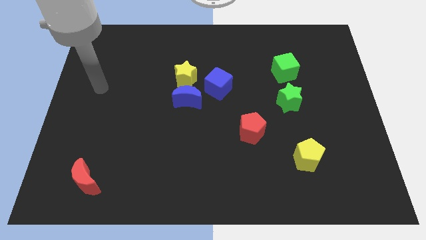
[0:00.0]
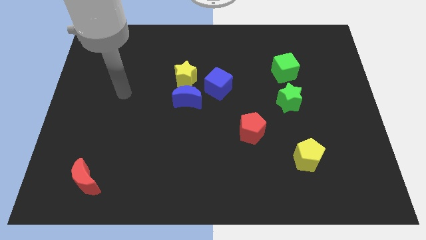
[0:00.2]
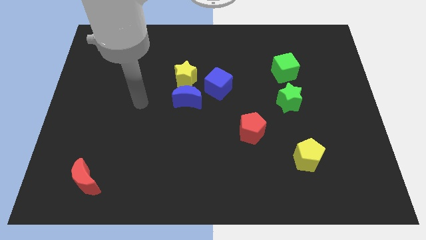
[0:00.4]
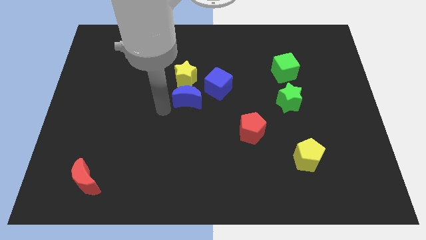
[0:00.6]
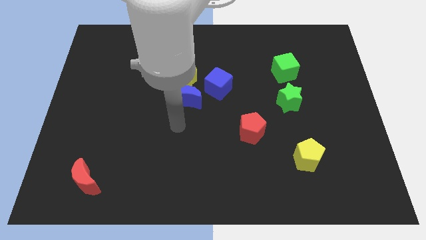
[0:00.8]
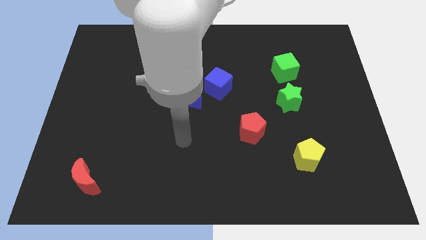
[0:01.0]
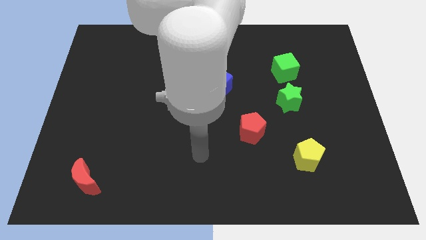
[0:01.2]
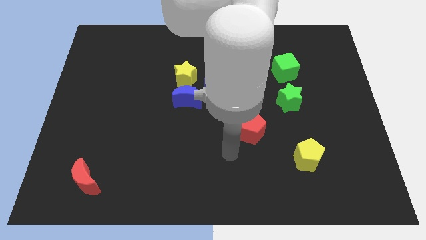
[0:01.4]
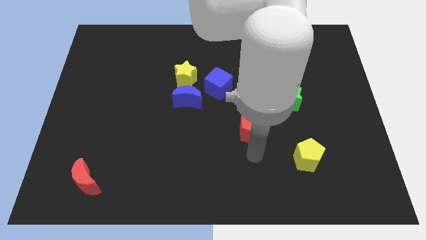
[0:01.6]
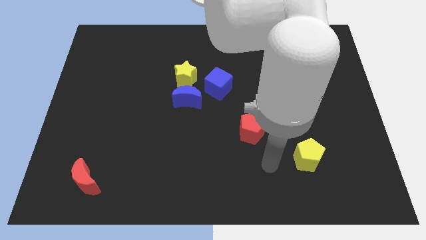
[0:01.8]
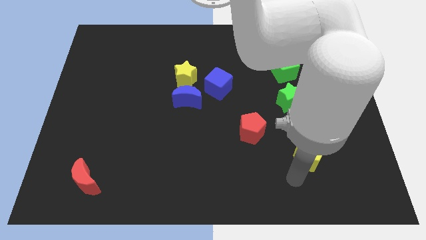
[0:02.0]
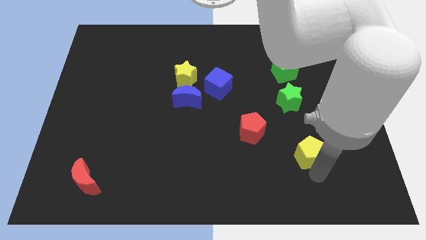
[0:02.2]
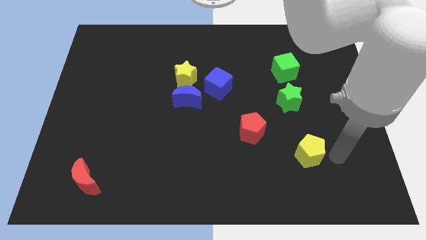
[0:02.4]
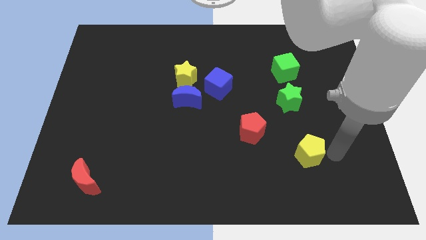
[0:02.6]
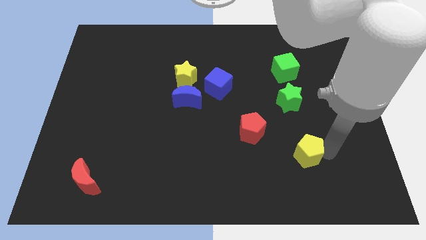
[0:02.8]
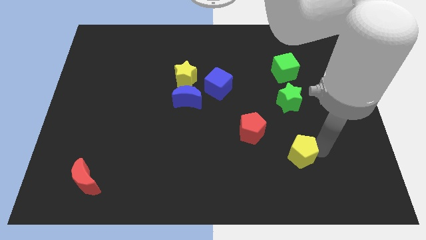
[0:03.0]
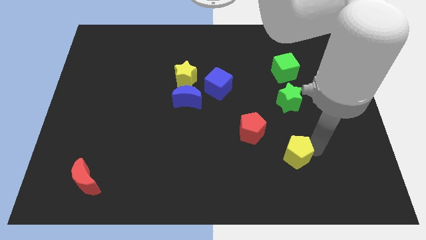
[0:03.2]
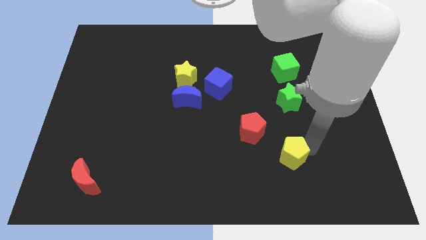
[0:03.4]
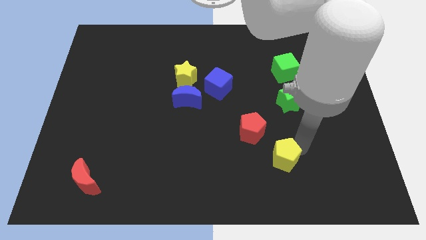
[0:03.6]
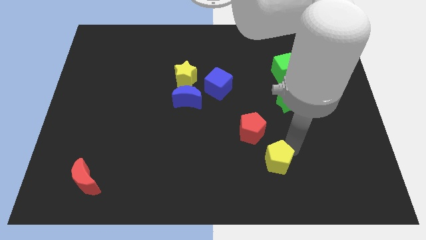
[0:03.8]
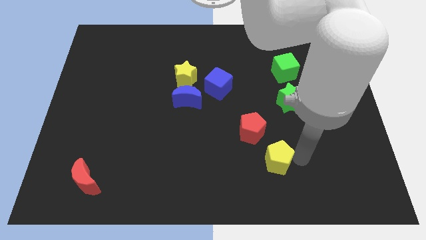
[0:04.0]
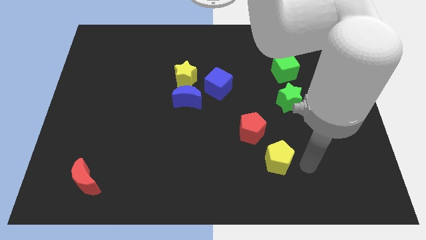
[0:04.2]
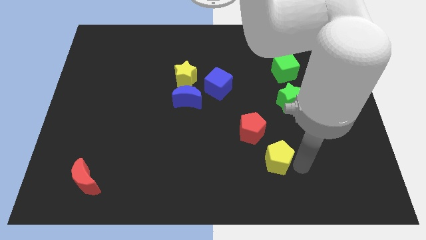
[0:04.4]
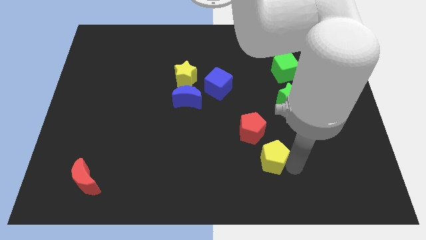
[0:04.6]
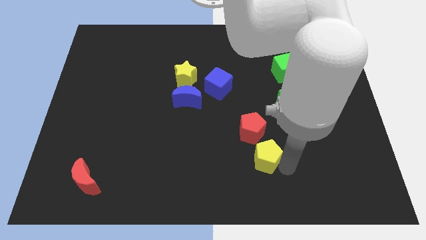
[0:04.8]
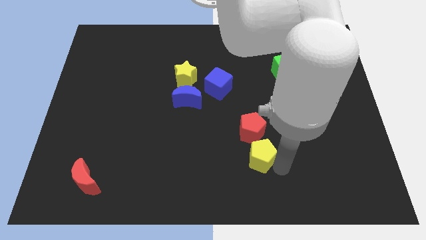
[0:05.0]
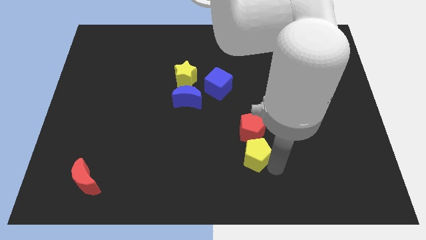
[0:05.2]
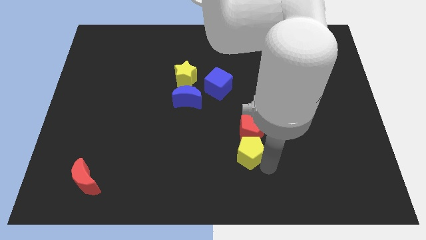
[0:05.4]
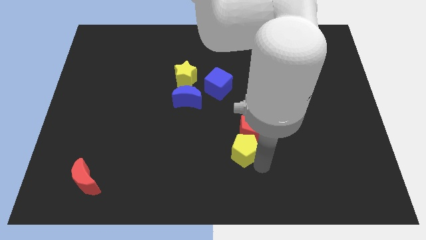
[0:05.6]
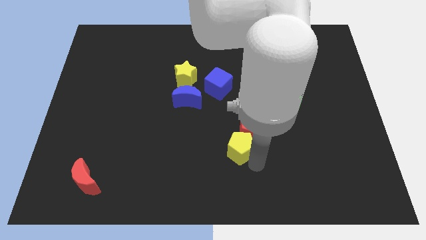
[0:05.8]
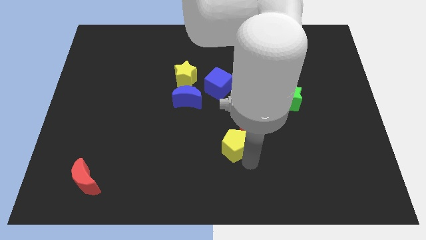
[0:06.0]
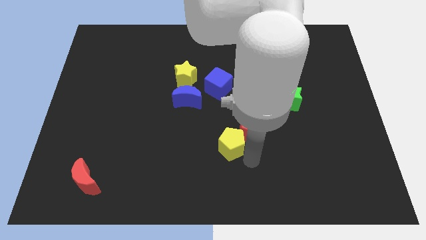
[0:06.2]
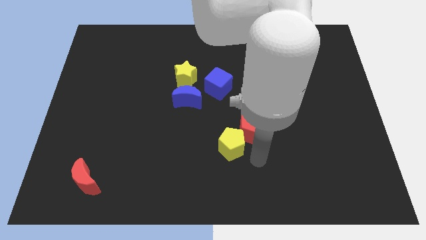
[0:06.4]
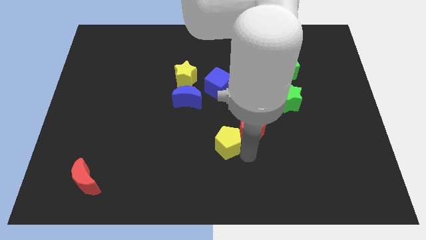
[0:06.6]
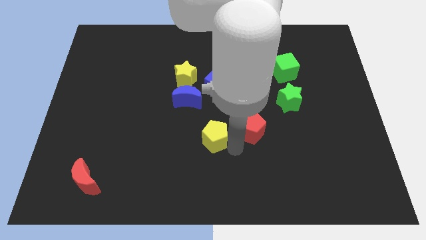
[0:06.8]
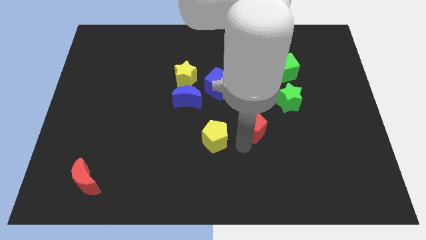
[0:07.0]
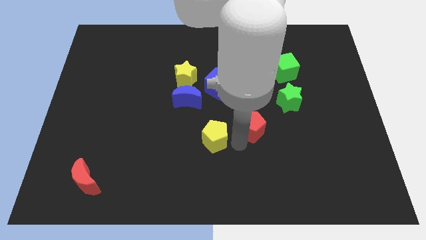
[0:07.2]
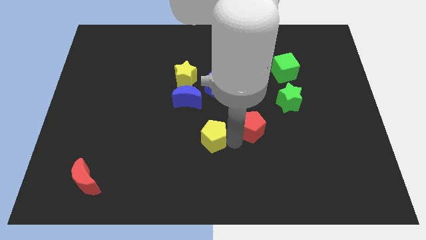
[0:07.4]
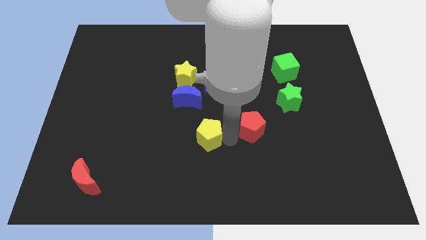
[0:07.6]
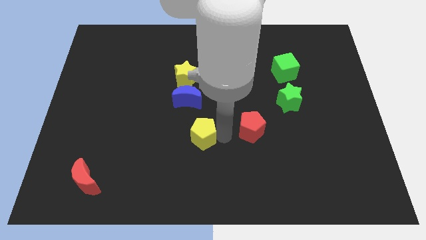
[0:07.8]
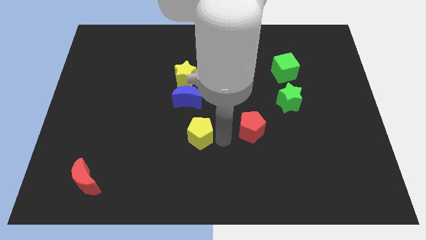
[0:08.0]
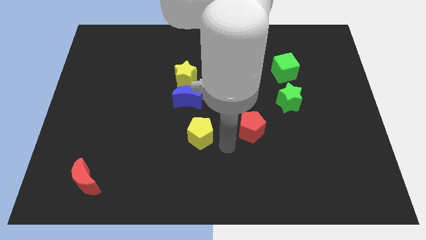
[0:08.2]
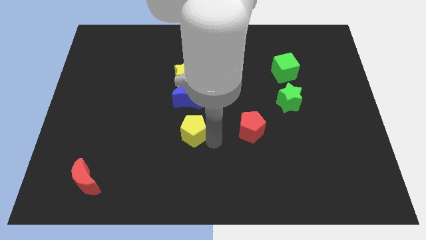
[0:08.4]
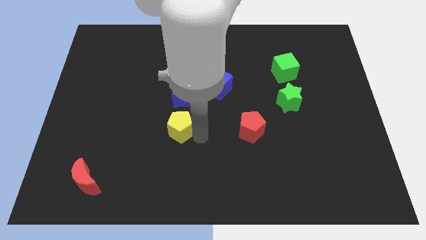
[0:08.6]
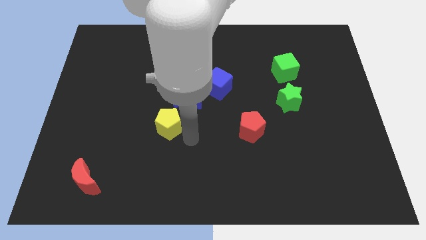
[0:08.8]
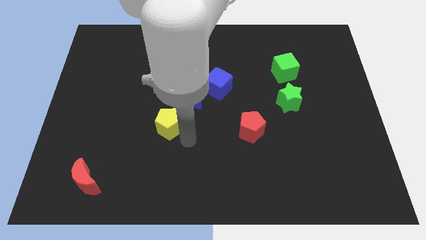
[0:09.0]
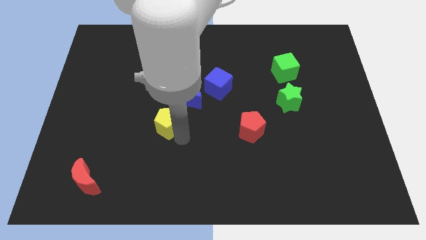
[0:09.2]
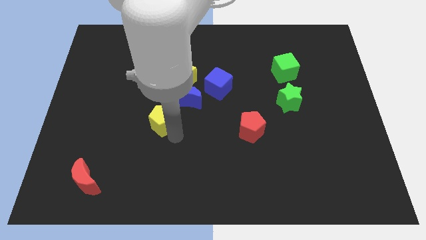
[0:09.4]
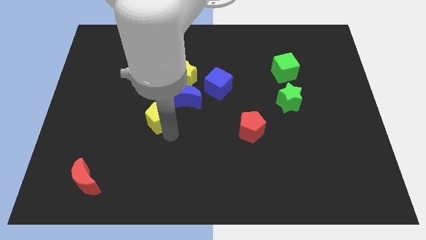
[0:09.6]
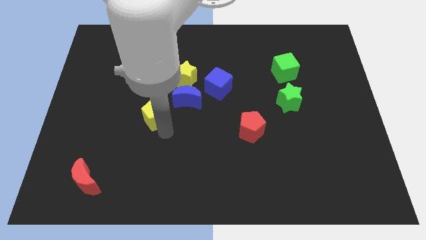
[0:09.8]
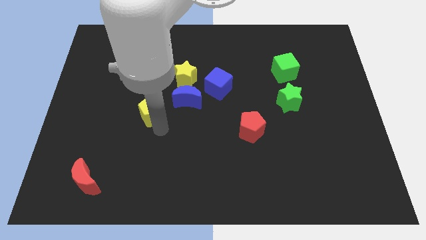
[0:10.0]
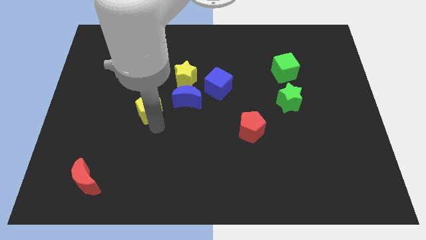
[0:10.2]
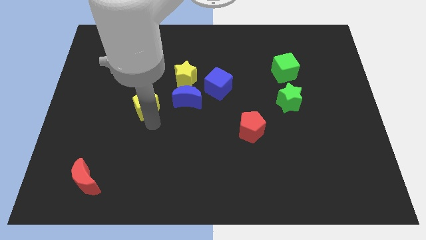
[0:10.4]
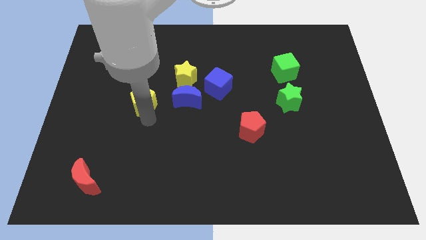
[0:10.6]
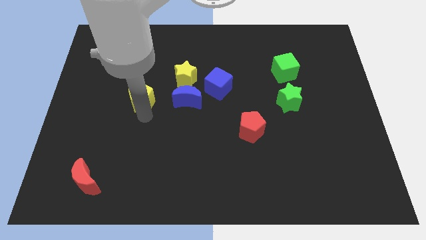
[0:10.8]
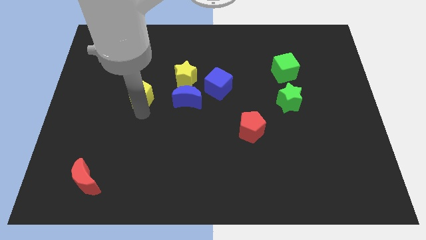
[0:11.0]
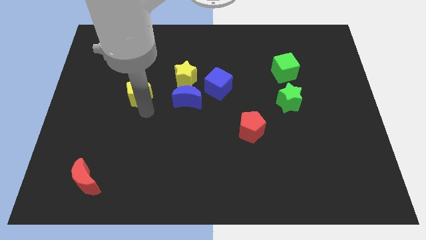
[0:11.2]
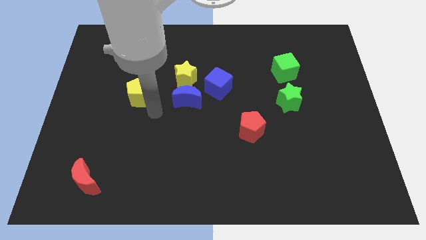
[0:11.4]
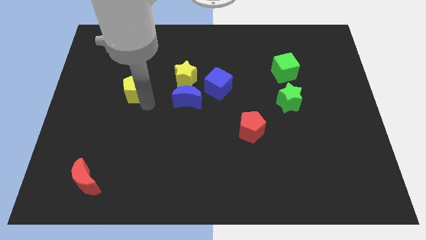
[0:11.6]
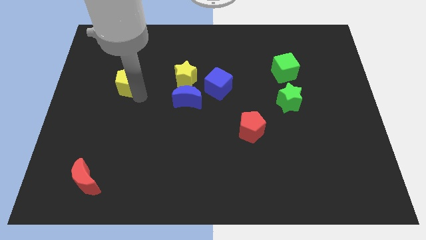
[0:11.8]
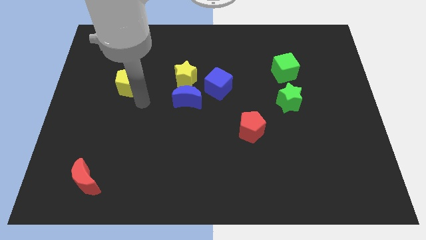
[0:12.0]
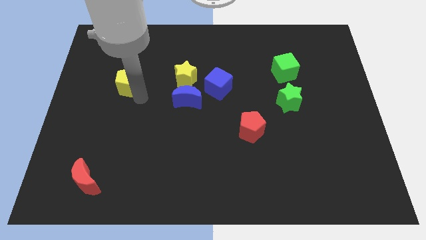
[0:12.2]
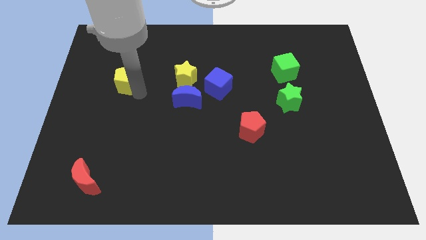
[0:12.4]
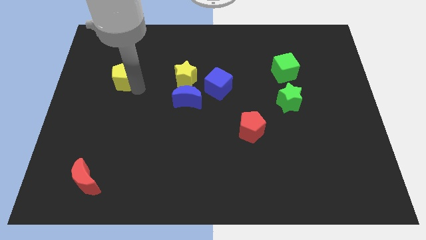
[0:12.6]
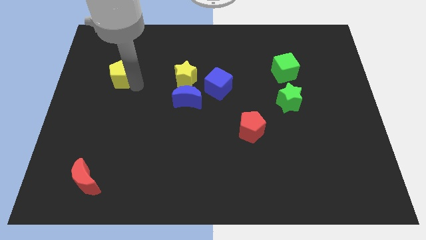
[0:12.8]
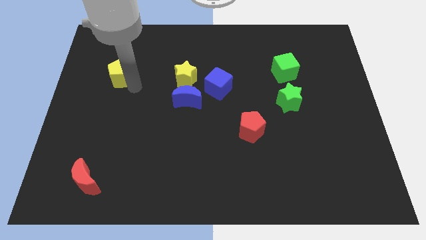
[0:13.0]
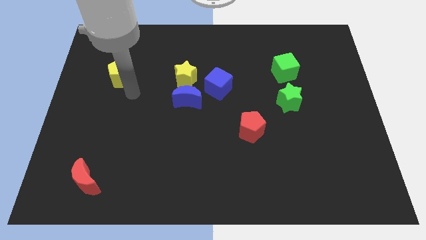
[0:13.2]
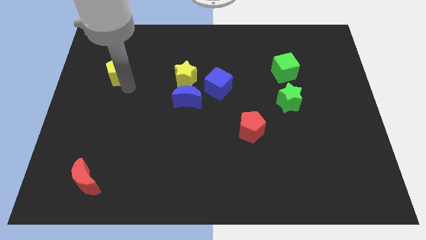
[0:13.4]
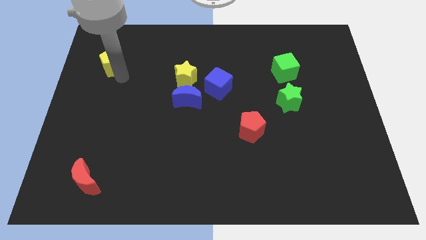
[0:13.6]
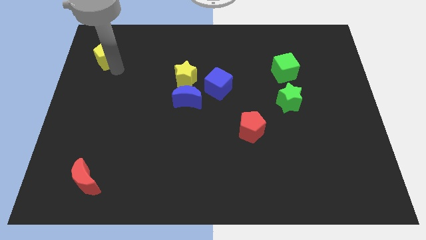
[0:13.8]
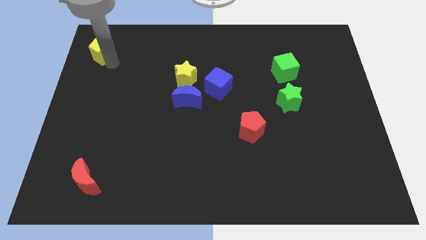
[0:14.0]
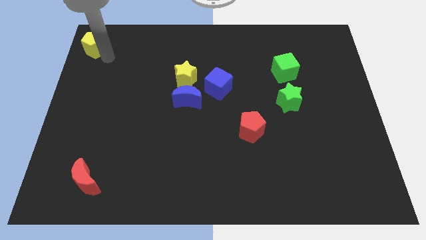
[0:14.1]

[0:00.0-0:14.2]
slide the yellow pentagon to the upper left corner
